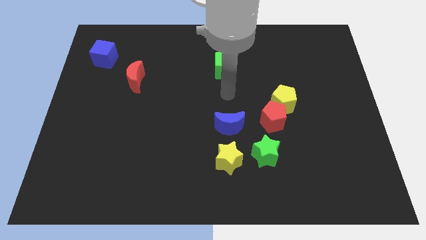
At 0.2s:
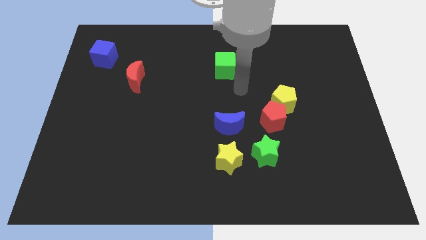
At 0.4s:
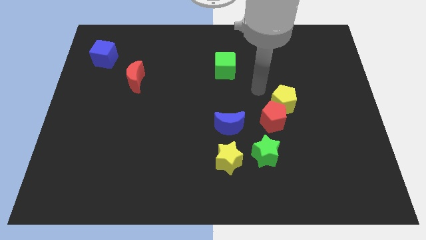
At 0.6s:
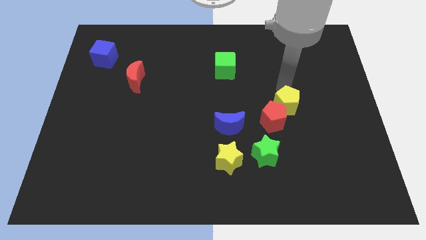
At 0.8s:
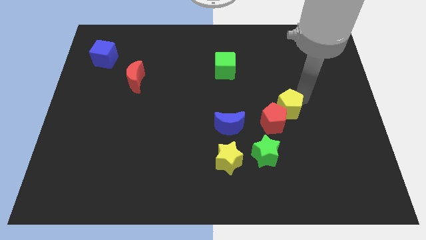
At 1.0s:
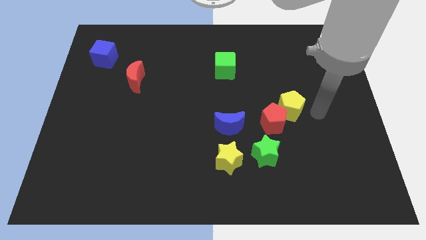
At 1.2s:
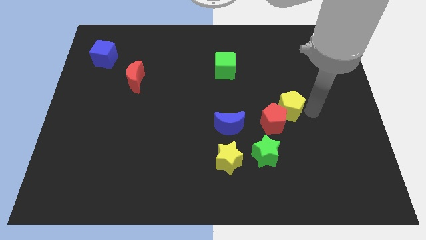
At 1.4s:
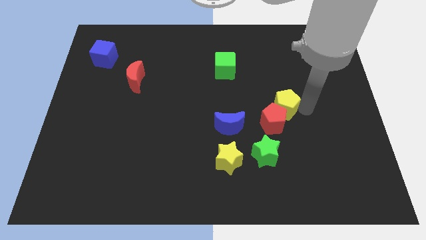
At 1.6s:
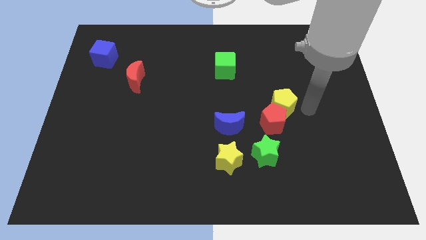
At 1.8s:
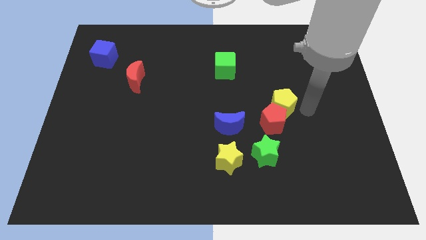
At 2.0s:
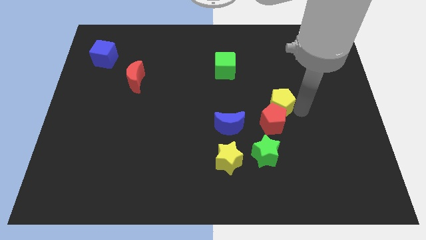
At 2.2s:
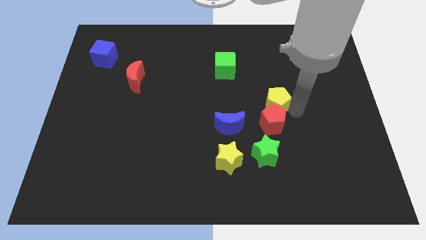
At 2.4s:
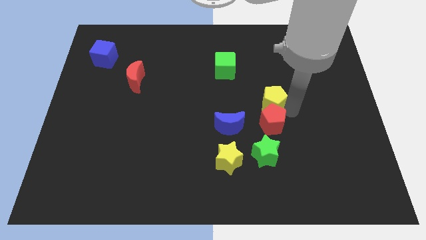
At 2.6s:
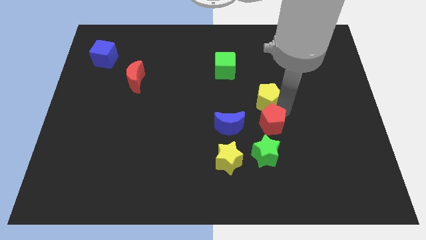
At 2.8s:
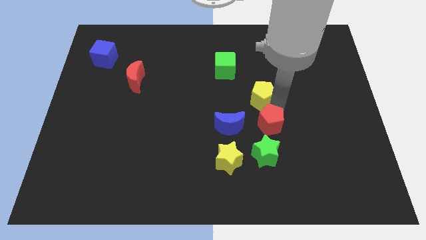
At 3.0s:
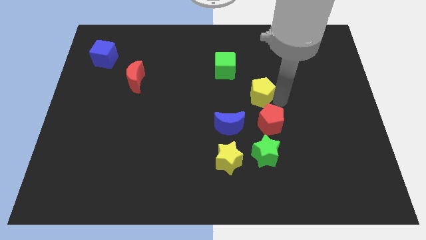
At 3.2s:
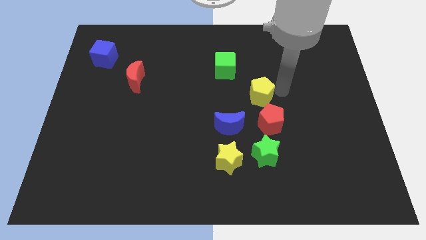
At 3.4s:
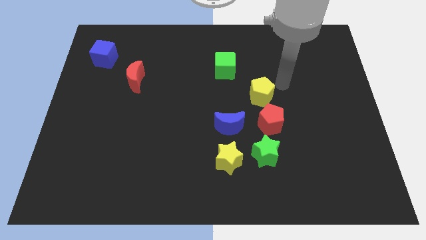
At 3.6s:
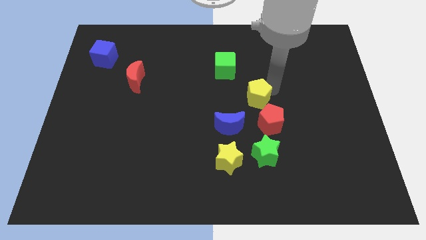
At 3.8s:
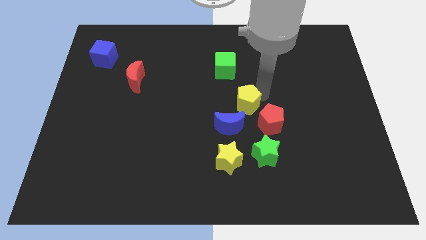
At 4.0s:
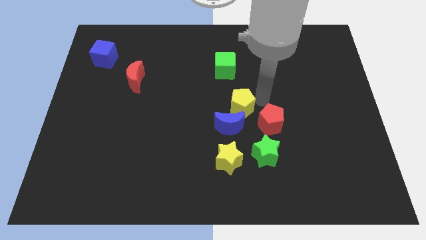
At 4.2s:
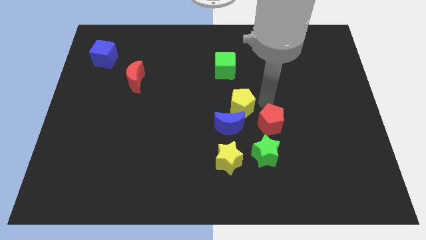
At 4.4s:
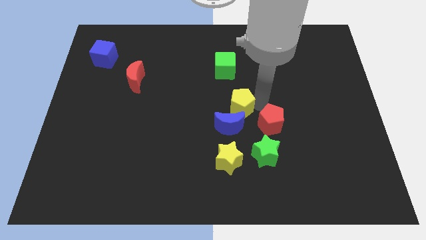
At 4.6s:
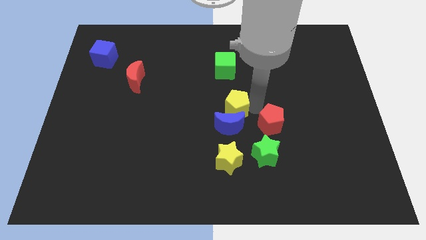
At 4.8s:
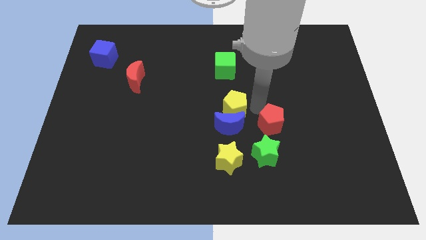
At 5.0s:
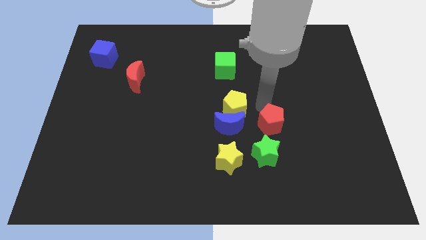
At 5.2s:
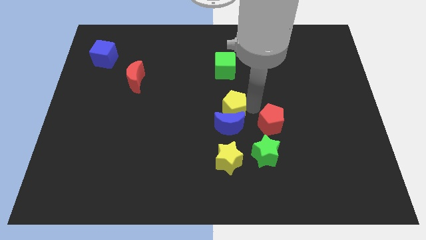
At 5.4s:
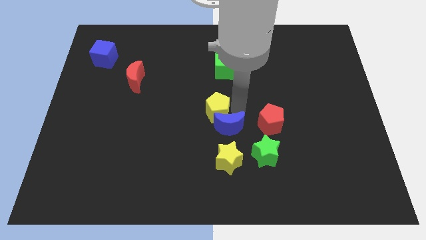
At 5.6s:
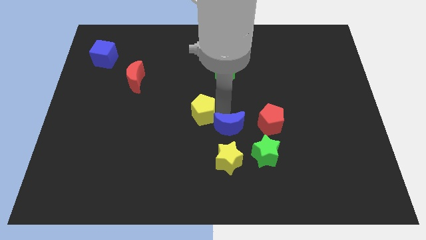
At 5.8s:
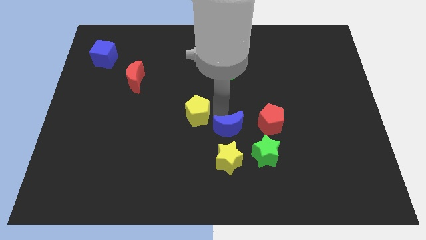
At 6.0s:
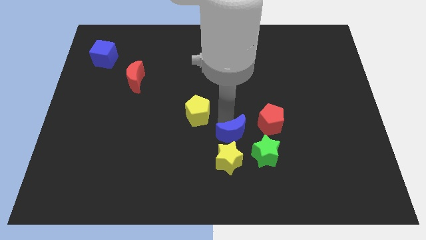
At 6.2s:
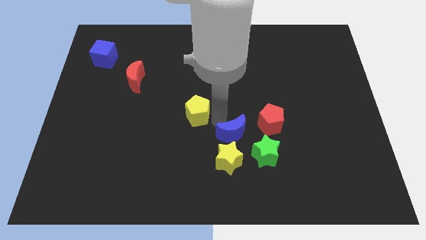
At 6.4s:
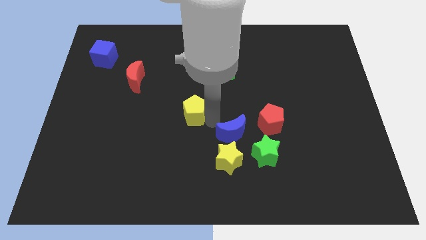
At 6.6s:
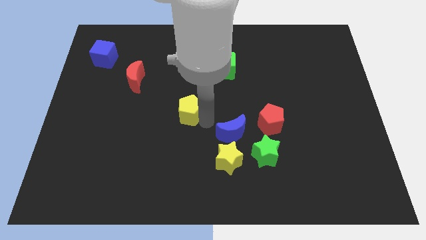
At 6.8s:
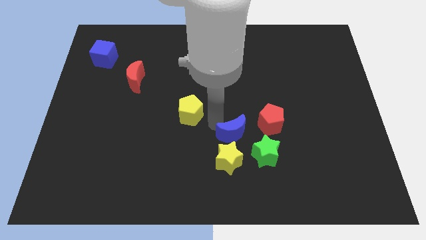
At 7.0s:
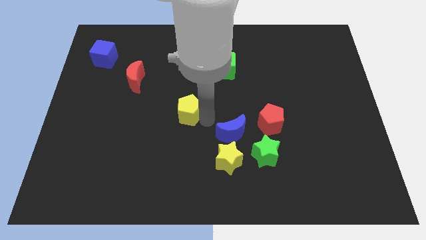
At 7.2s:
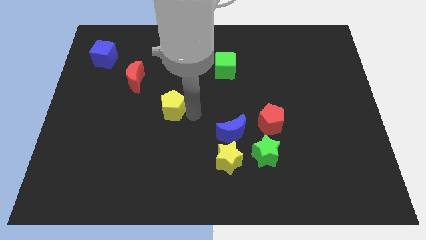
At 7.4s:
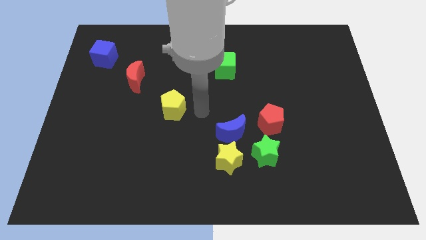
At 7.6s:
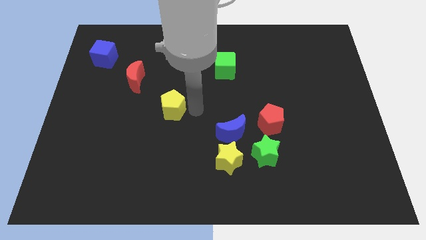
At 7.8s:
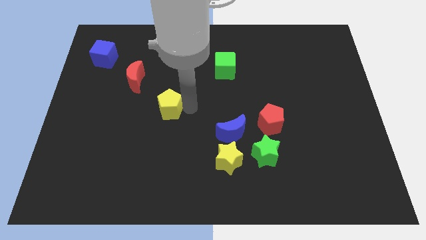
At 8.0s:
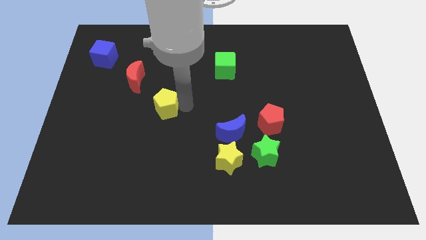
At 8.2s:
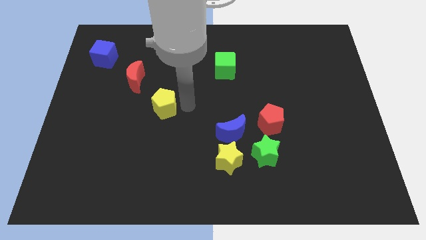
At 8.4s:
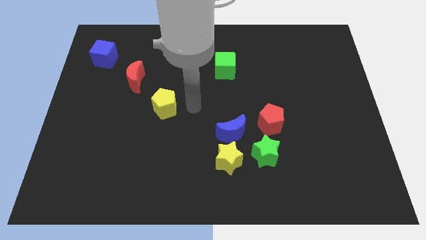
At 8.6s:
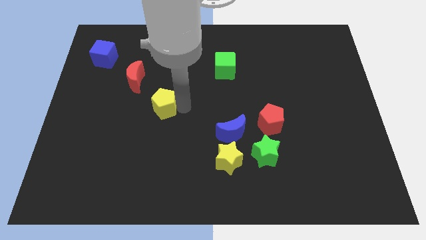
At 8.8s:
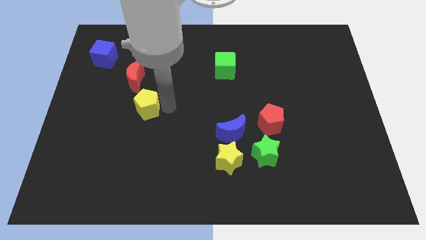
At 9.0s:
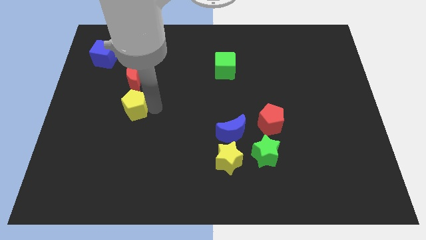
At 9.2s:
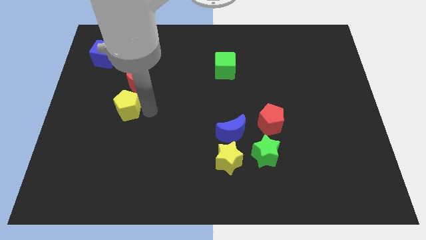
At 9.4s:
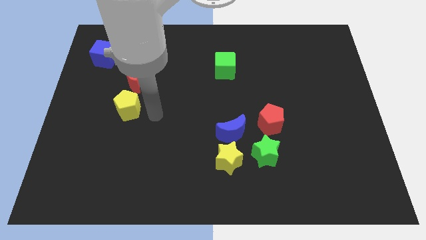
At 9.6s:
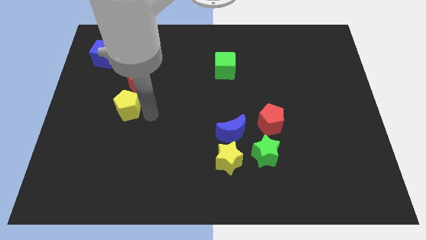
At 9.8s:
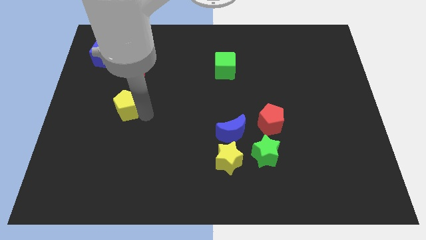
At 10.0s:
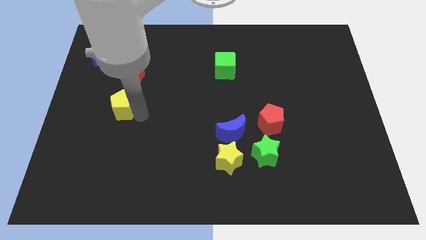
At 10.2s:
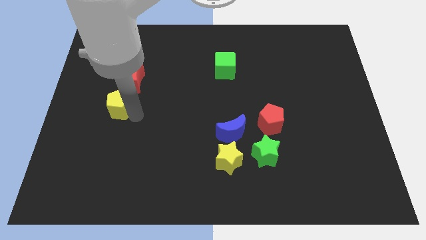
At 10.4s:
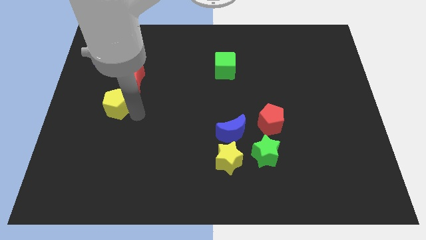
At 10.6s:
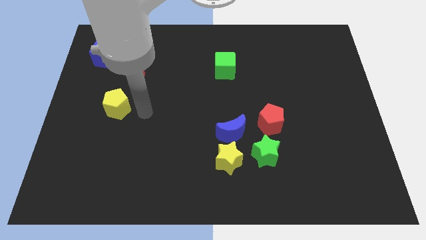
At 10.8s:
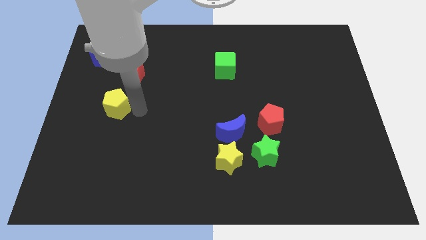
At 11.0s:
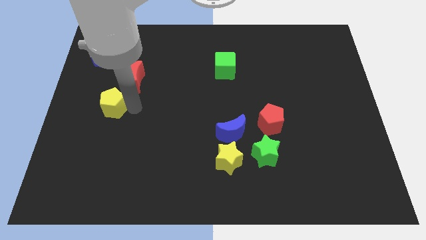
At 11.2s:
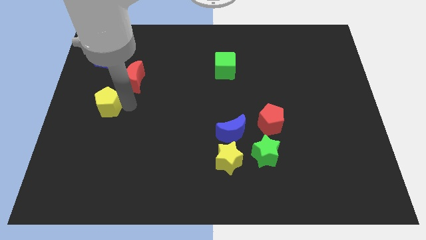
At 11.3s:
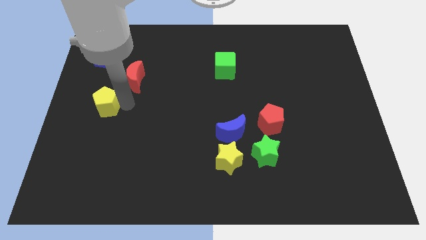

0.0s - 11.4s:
move the yellow pentagon to the left side of the board

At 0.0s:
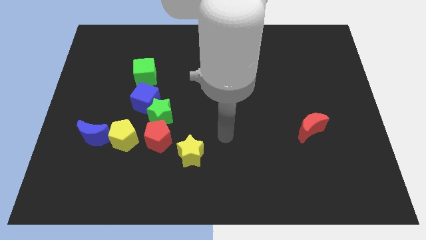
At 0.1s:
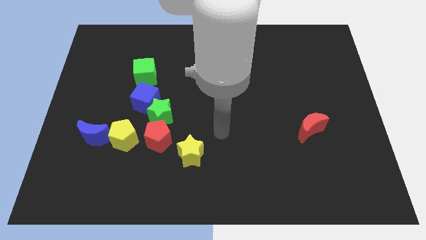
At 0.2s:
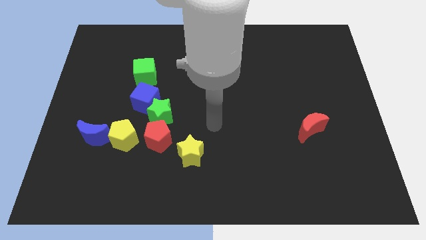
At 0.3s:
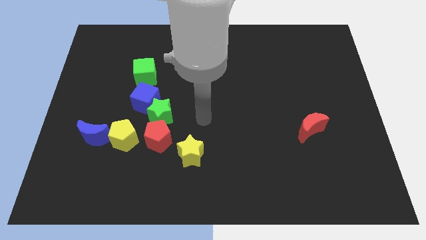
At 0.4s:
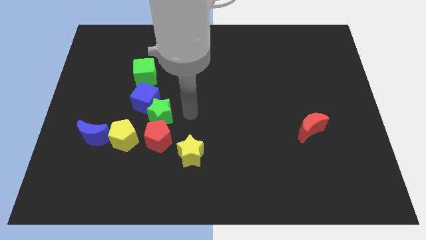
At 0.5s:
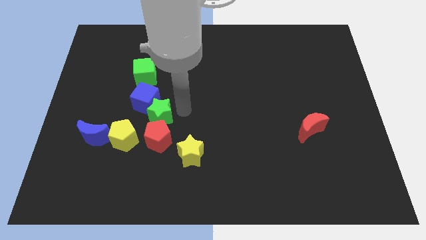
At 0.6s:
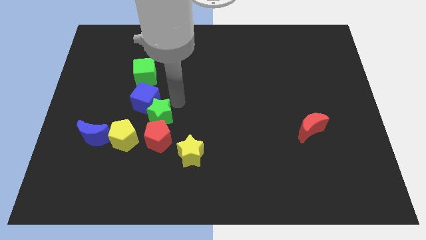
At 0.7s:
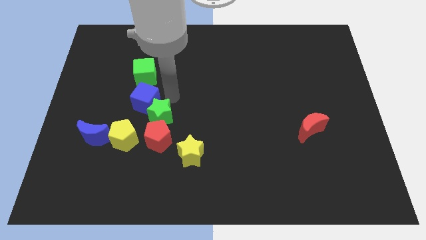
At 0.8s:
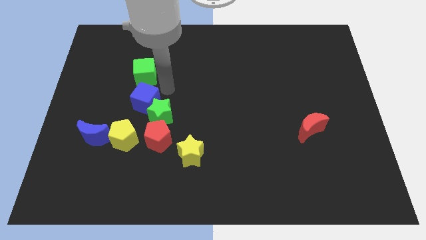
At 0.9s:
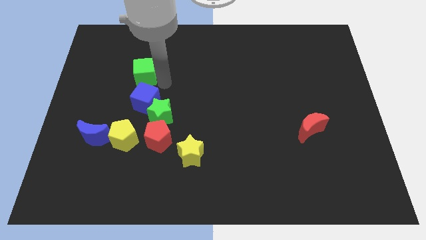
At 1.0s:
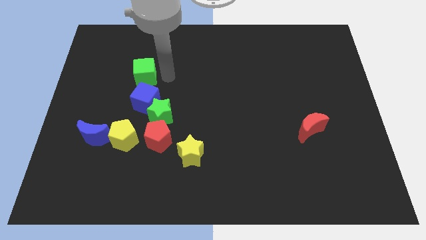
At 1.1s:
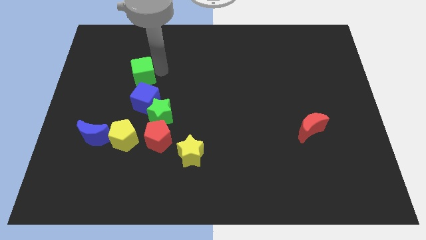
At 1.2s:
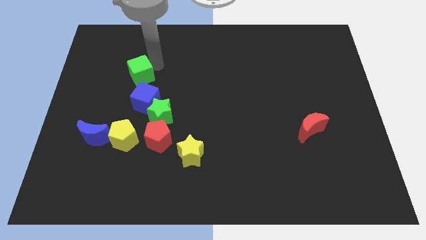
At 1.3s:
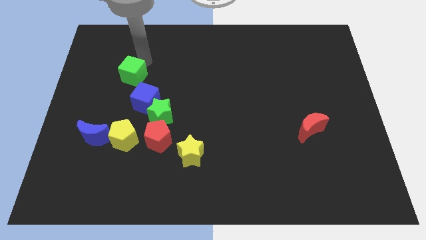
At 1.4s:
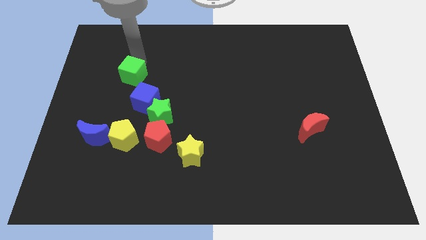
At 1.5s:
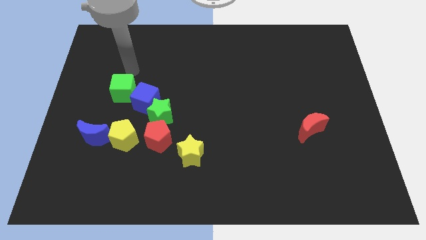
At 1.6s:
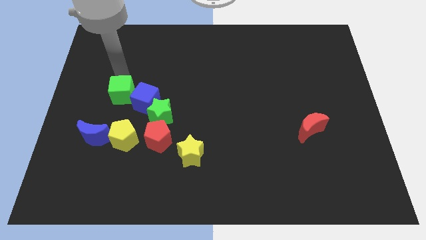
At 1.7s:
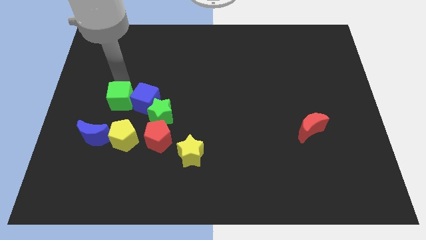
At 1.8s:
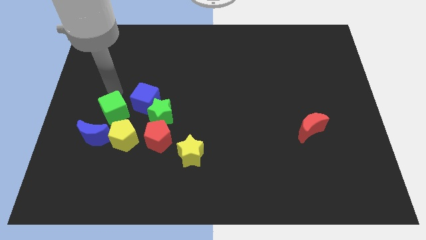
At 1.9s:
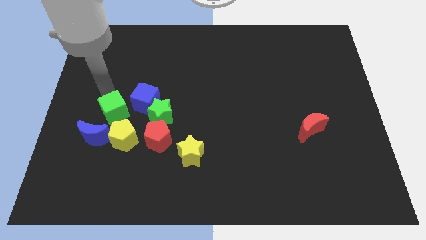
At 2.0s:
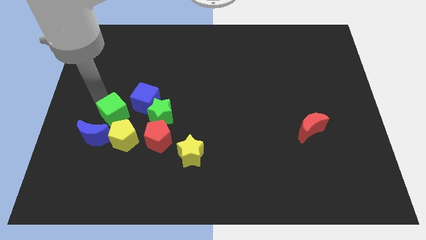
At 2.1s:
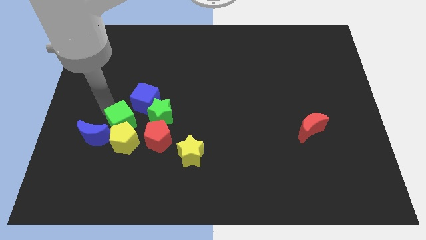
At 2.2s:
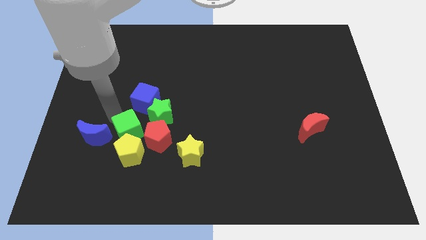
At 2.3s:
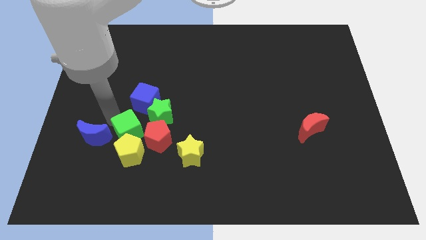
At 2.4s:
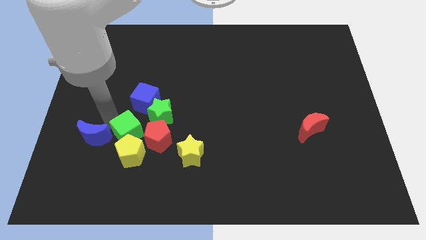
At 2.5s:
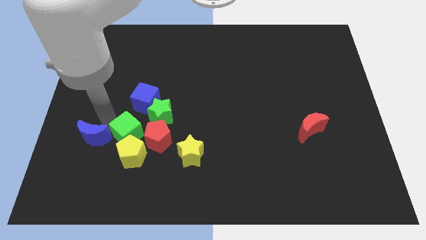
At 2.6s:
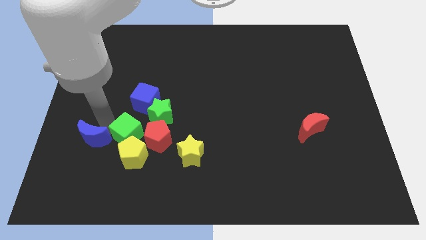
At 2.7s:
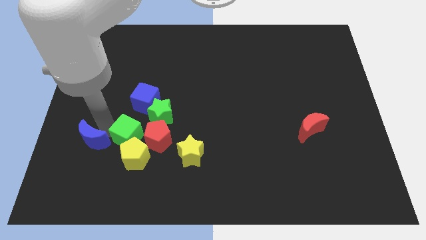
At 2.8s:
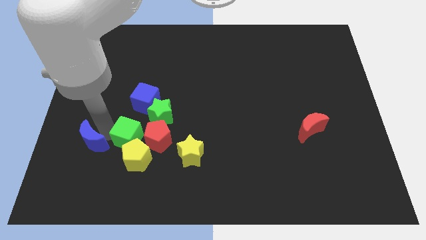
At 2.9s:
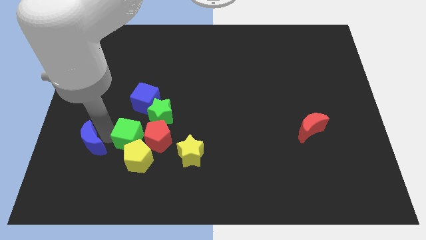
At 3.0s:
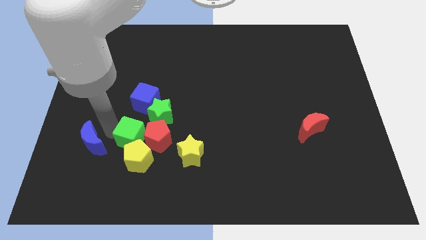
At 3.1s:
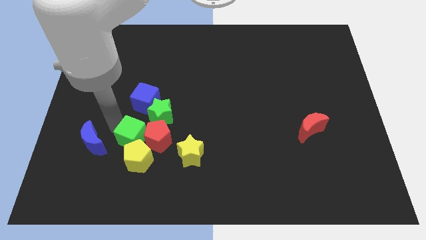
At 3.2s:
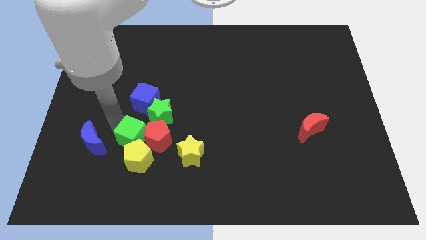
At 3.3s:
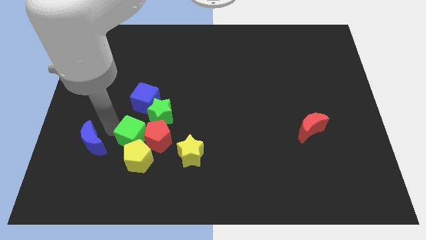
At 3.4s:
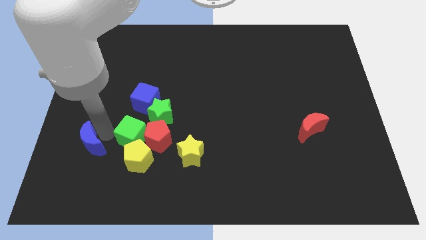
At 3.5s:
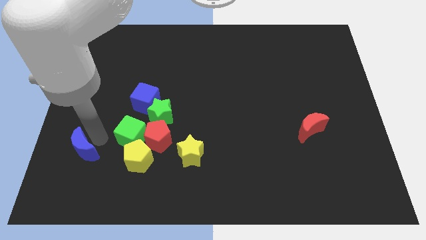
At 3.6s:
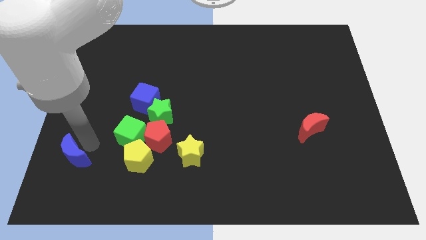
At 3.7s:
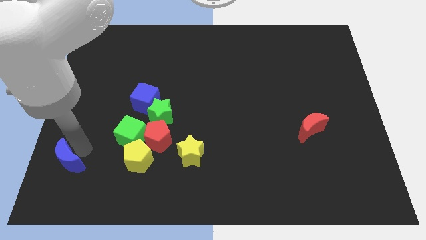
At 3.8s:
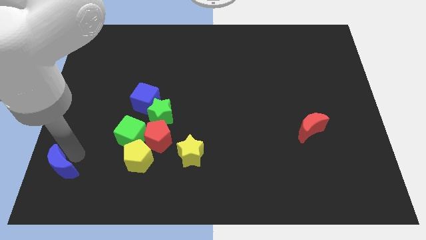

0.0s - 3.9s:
slide the blue moon to the bottom left of the board
